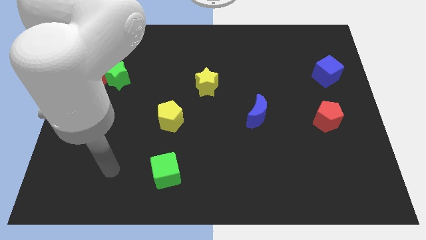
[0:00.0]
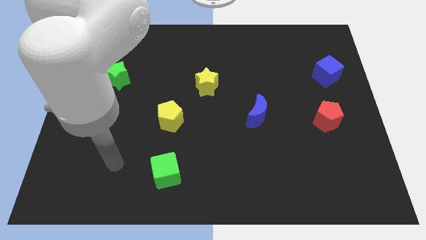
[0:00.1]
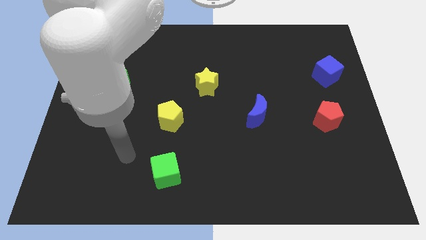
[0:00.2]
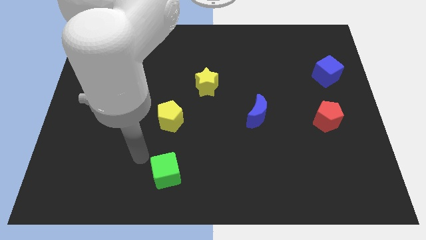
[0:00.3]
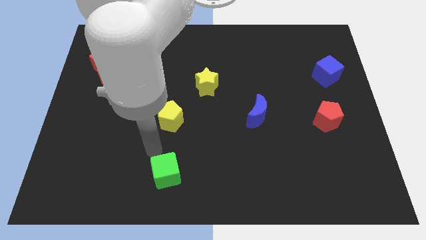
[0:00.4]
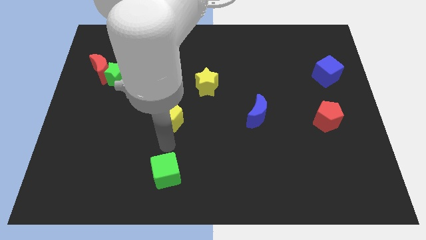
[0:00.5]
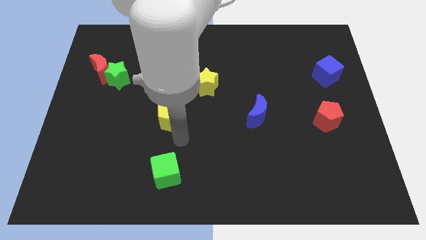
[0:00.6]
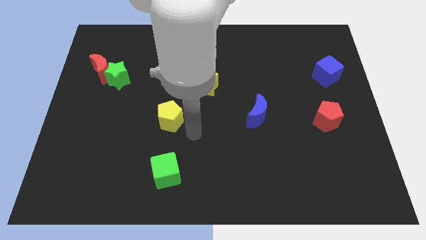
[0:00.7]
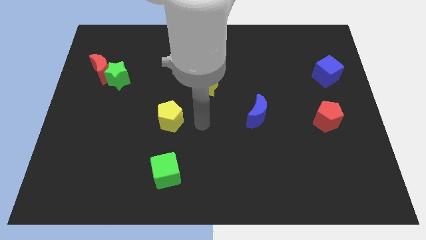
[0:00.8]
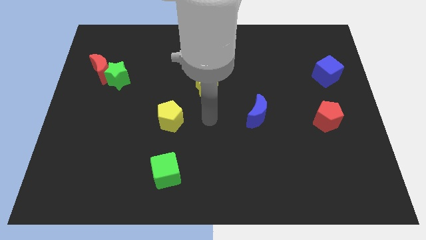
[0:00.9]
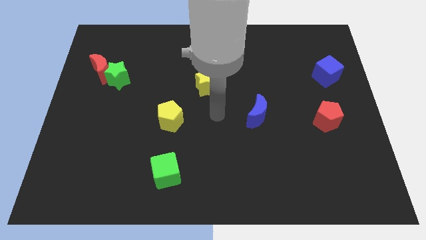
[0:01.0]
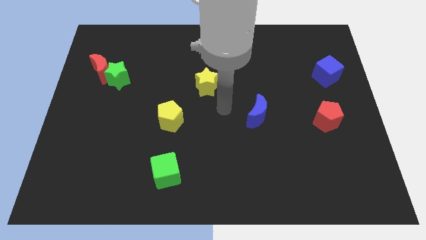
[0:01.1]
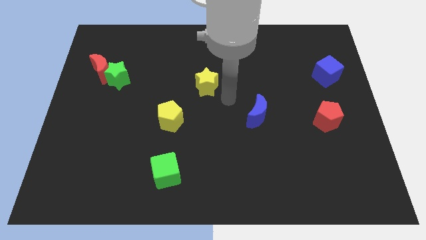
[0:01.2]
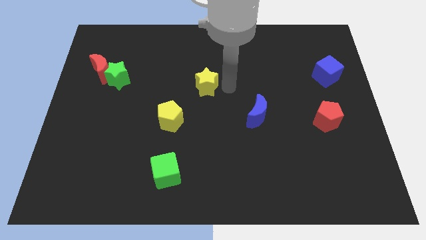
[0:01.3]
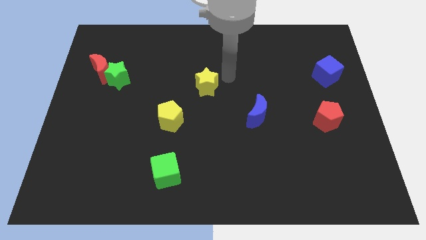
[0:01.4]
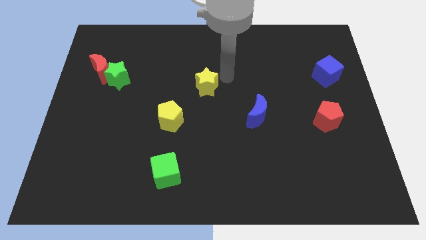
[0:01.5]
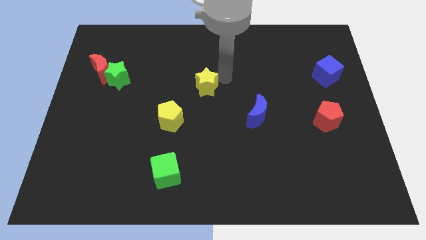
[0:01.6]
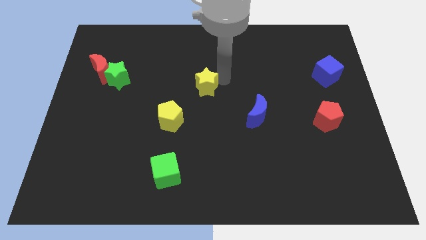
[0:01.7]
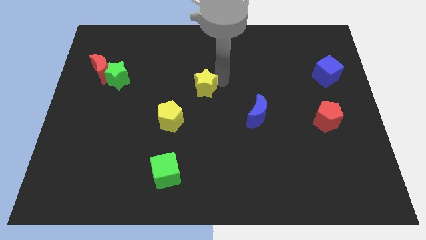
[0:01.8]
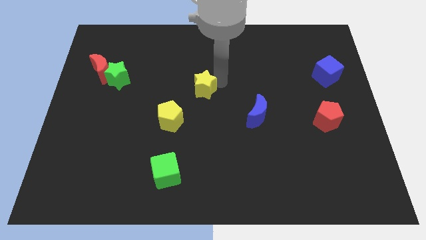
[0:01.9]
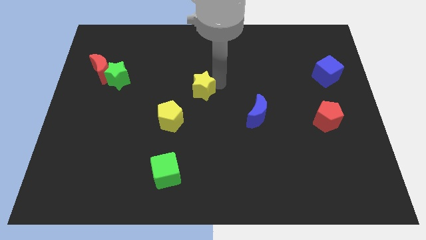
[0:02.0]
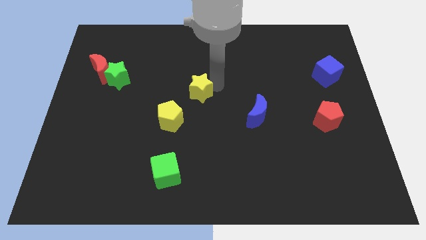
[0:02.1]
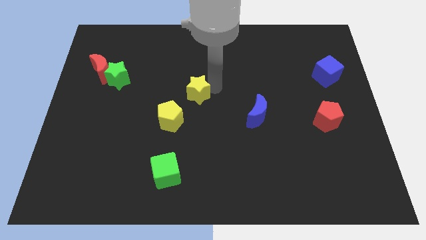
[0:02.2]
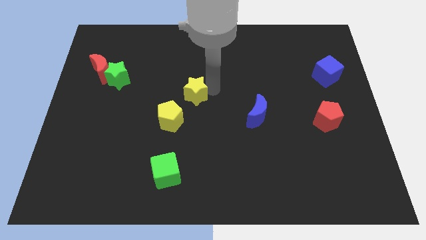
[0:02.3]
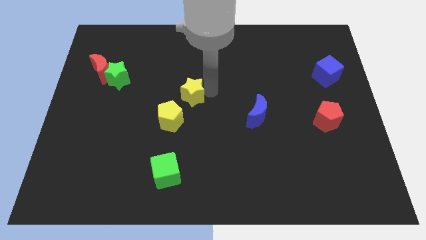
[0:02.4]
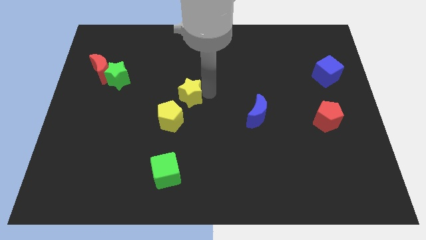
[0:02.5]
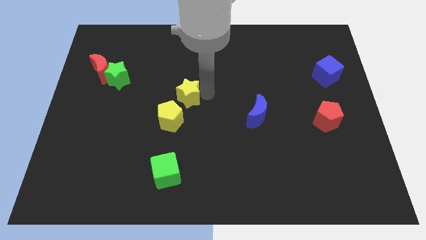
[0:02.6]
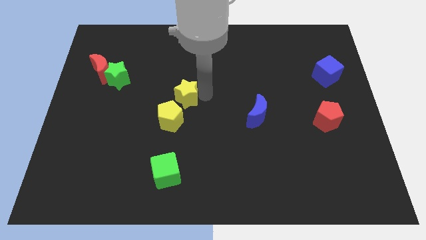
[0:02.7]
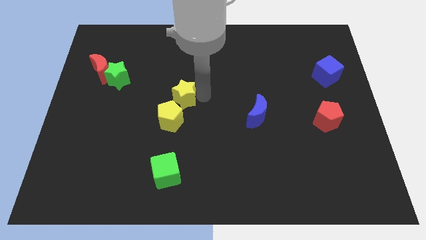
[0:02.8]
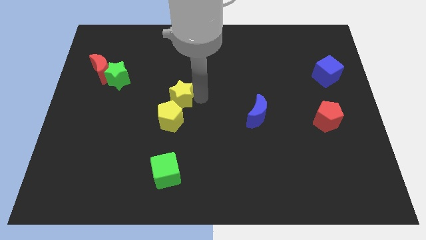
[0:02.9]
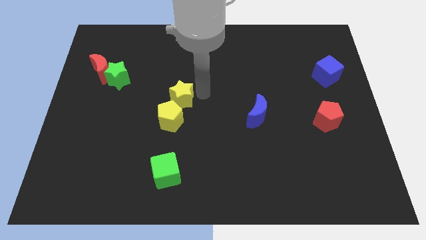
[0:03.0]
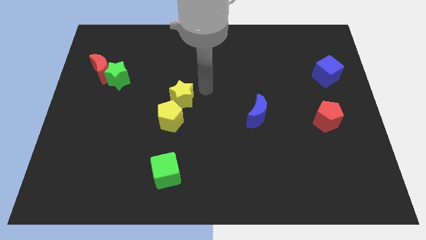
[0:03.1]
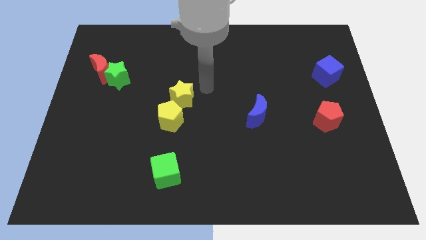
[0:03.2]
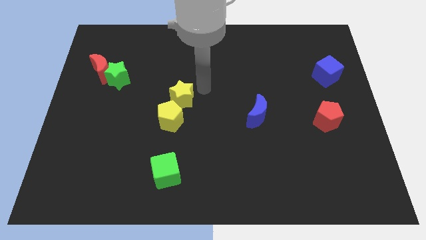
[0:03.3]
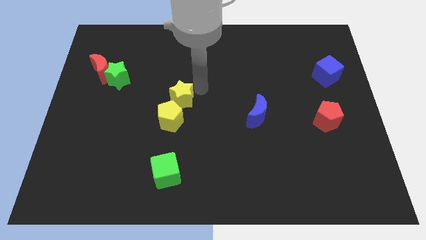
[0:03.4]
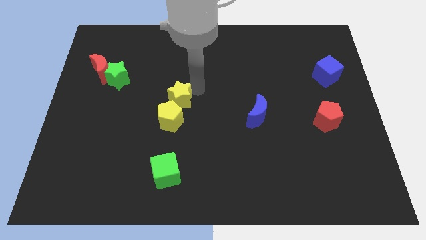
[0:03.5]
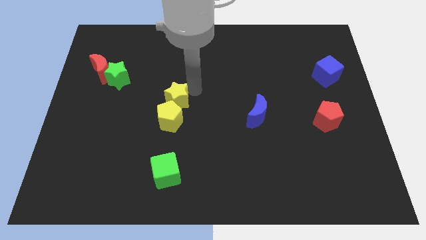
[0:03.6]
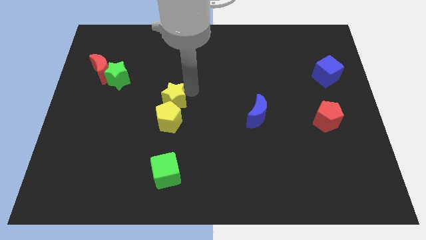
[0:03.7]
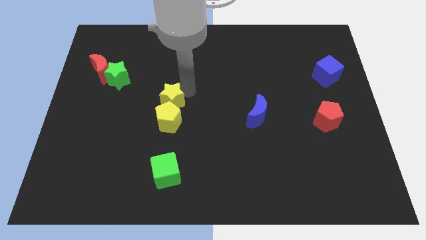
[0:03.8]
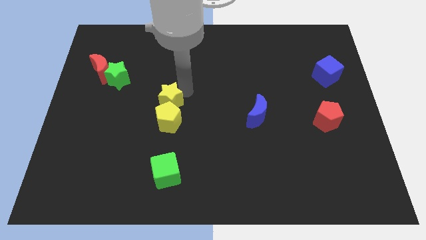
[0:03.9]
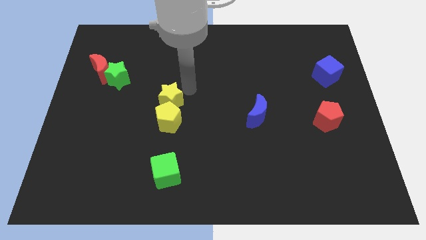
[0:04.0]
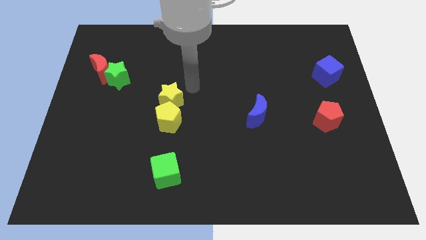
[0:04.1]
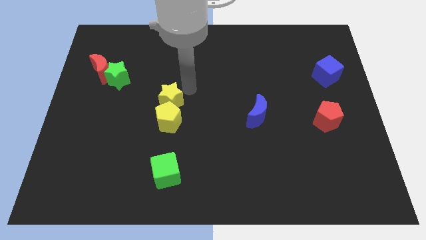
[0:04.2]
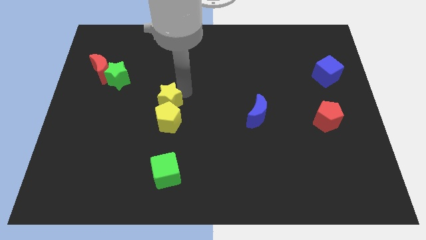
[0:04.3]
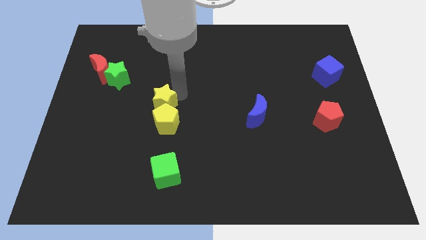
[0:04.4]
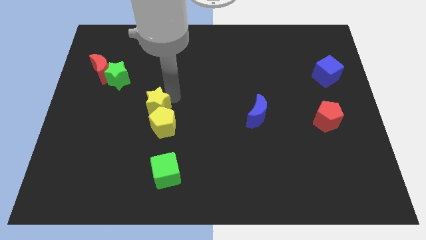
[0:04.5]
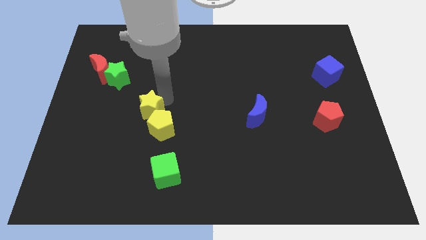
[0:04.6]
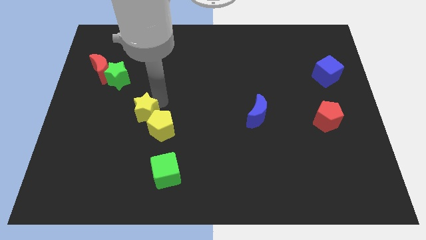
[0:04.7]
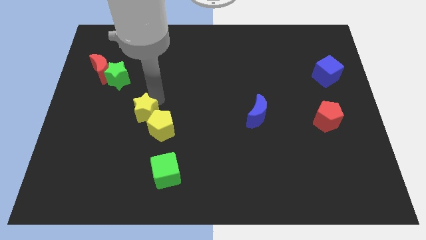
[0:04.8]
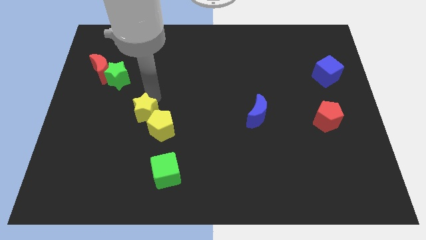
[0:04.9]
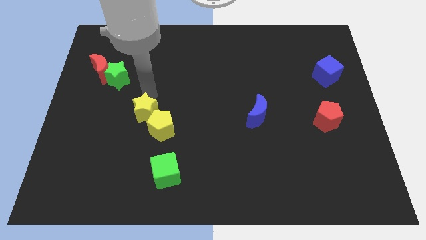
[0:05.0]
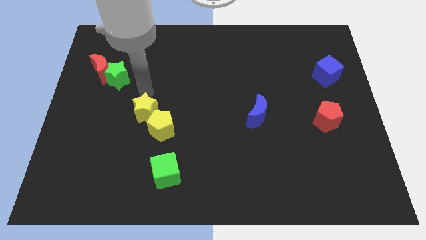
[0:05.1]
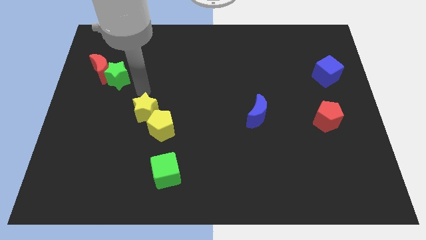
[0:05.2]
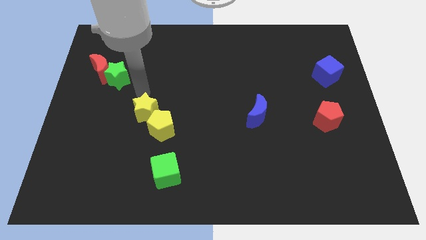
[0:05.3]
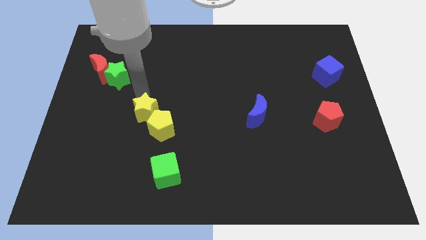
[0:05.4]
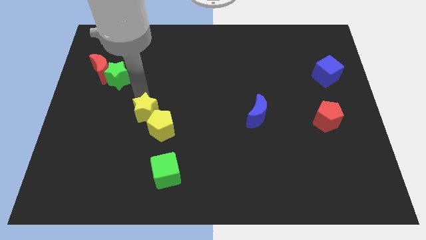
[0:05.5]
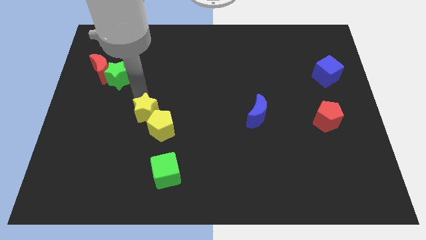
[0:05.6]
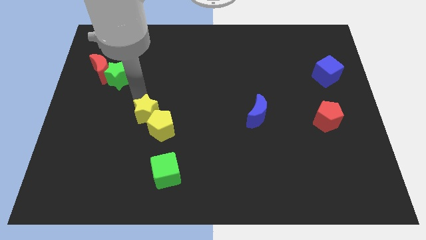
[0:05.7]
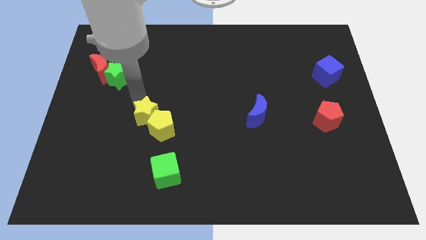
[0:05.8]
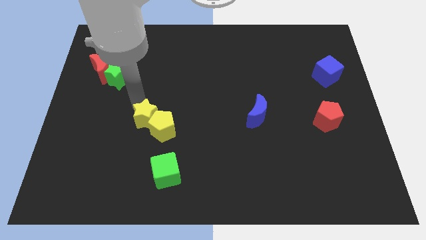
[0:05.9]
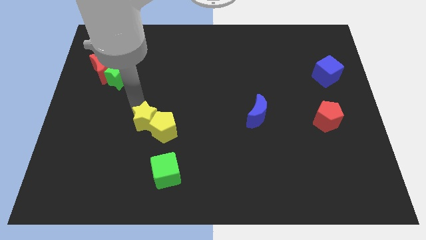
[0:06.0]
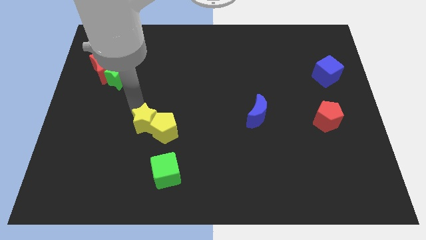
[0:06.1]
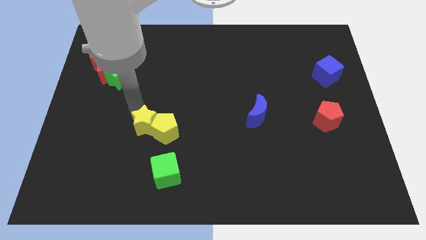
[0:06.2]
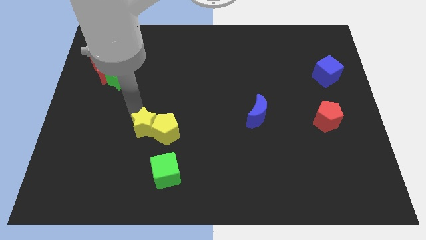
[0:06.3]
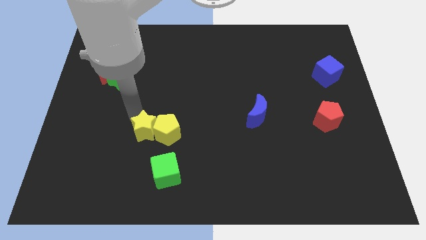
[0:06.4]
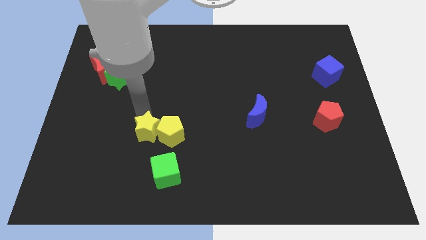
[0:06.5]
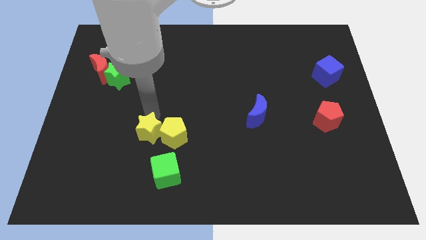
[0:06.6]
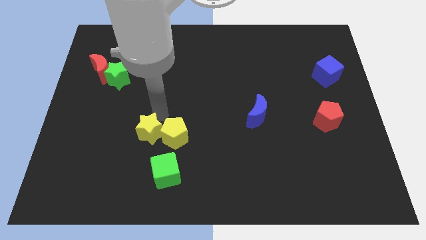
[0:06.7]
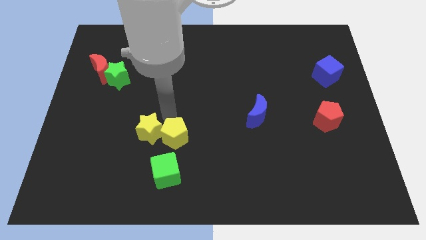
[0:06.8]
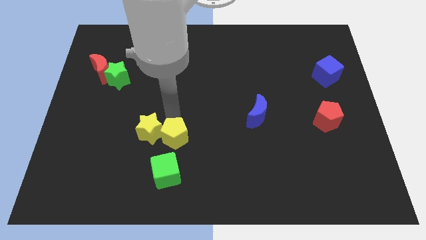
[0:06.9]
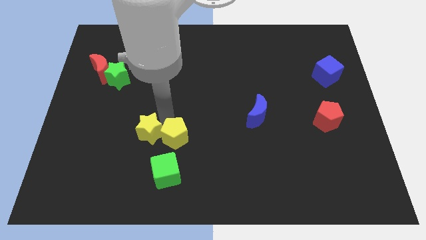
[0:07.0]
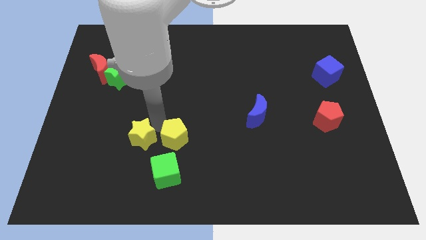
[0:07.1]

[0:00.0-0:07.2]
push the yellow star downwards and then to the left

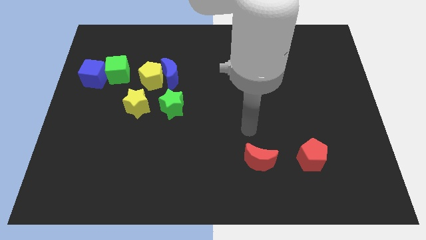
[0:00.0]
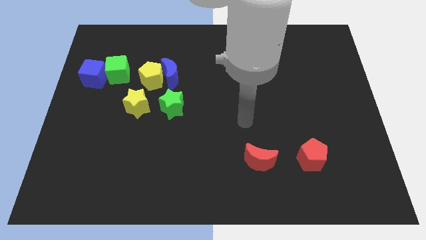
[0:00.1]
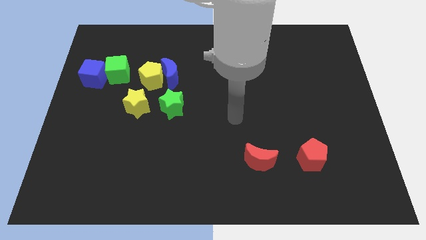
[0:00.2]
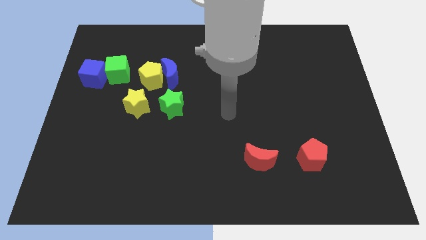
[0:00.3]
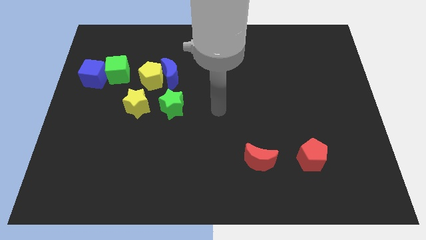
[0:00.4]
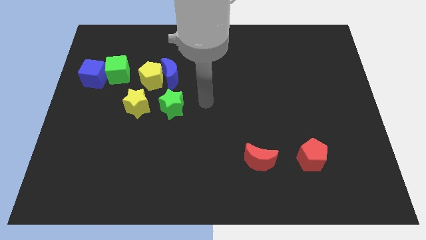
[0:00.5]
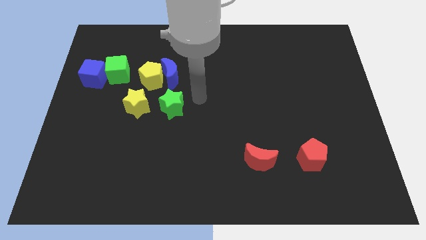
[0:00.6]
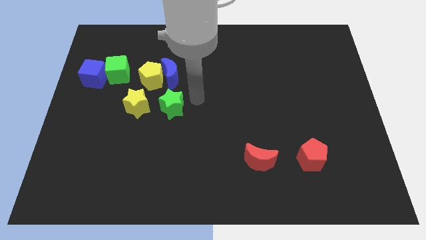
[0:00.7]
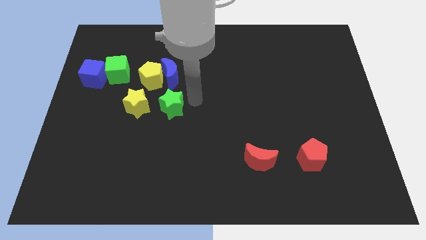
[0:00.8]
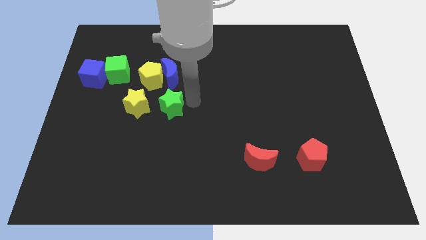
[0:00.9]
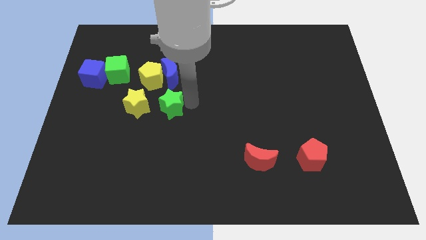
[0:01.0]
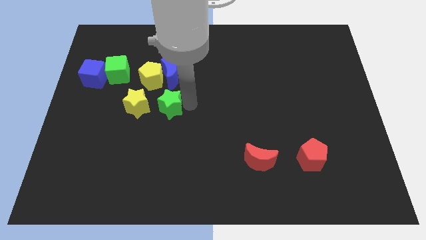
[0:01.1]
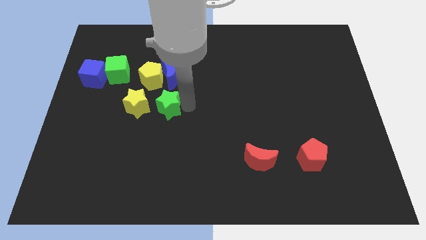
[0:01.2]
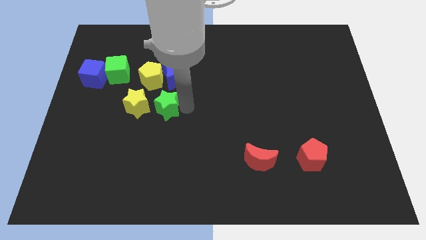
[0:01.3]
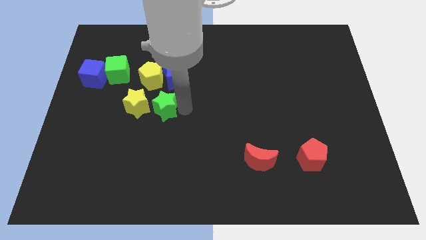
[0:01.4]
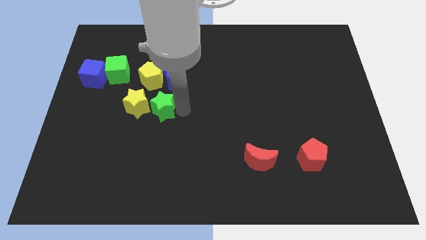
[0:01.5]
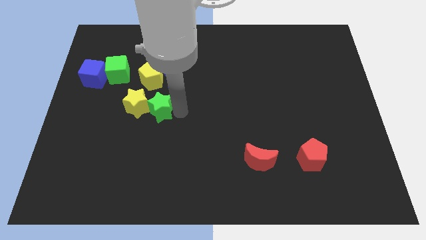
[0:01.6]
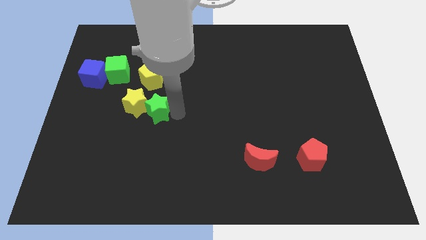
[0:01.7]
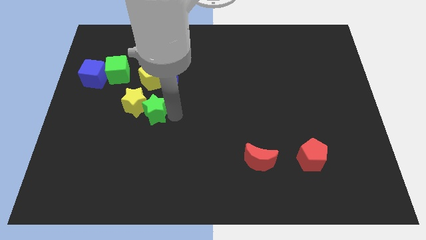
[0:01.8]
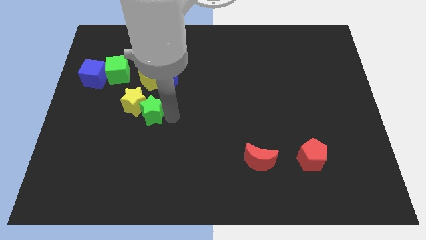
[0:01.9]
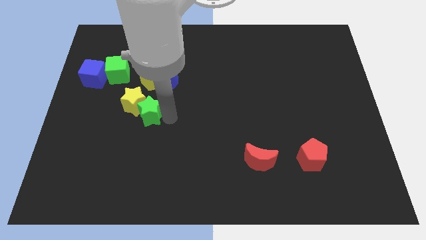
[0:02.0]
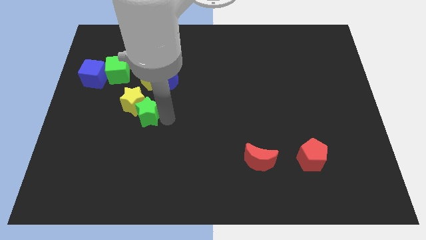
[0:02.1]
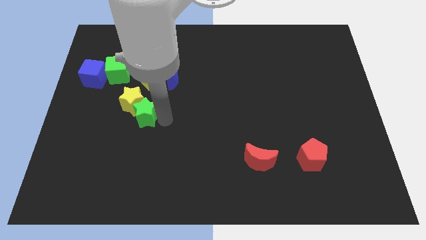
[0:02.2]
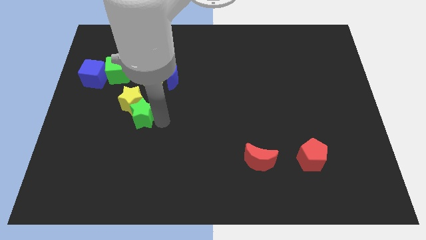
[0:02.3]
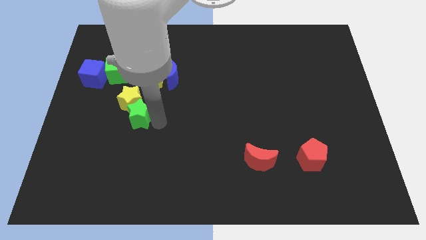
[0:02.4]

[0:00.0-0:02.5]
slide the green star to the left somewhat
